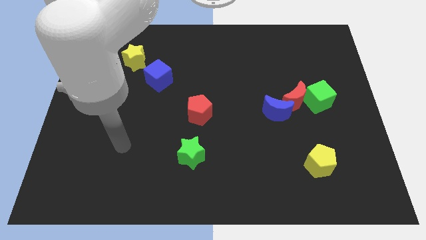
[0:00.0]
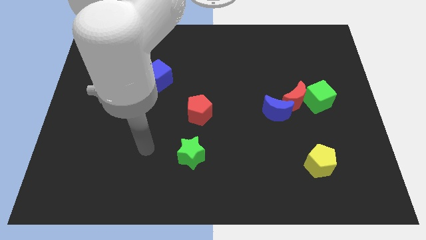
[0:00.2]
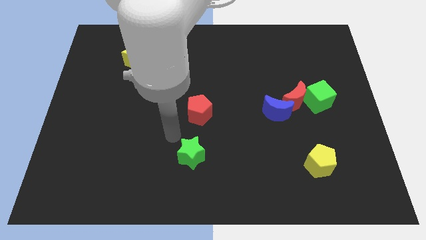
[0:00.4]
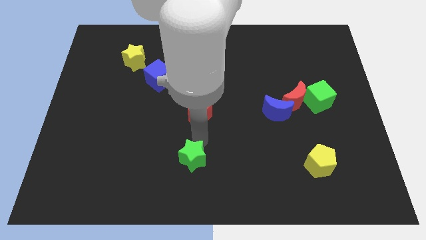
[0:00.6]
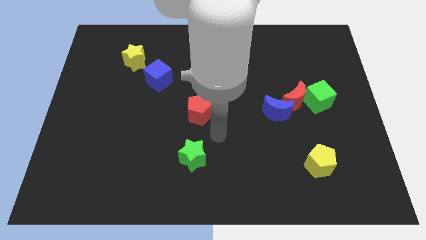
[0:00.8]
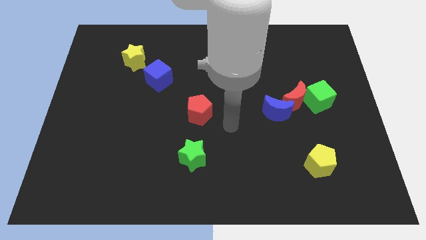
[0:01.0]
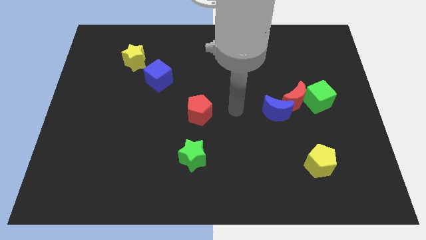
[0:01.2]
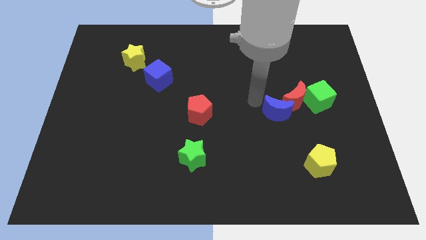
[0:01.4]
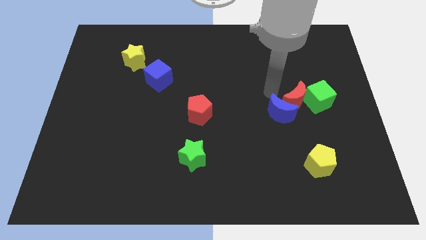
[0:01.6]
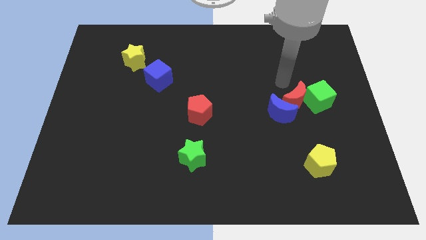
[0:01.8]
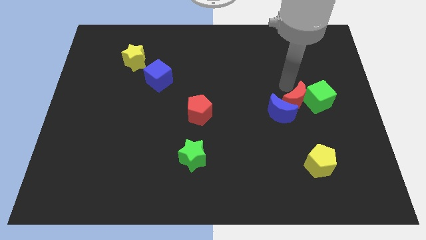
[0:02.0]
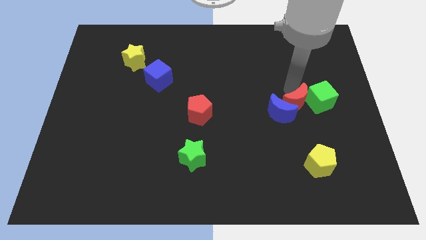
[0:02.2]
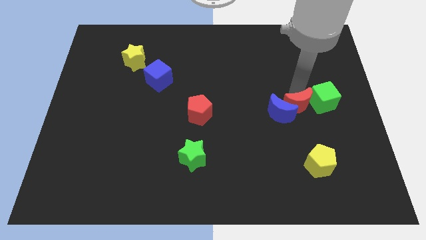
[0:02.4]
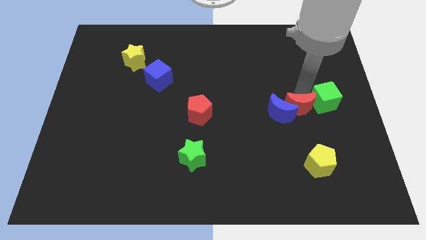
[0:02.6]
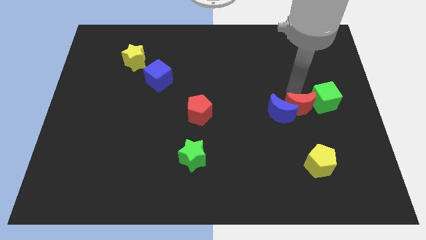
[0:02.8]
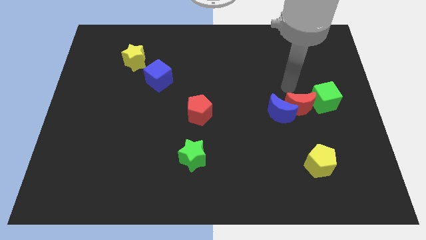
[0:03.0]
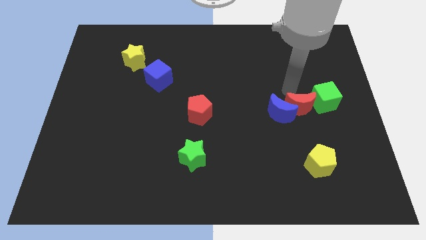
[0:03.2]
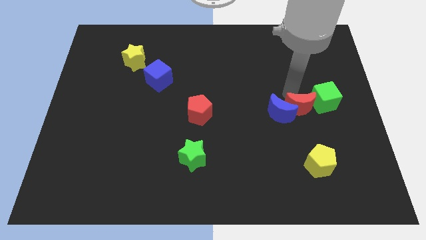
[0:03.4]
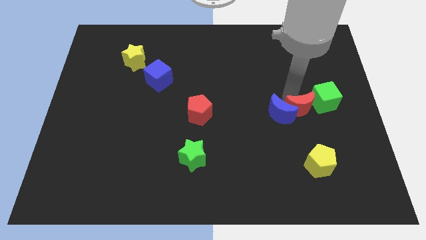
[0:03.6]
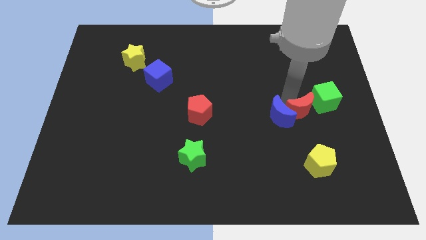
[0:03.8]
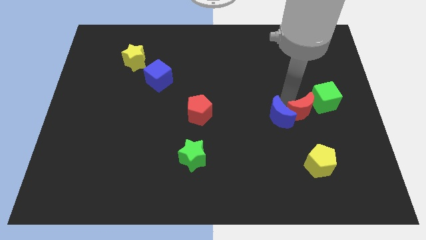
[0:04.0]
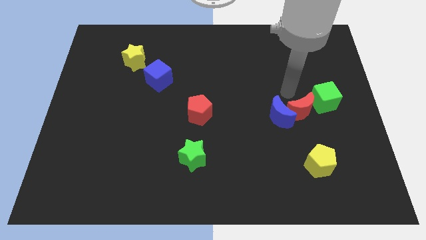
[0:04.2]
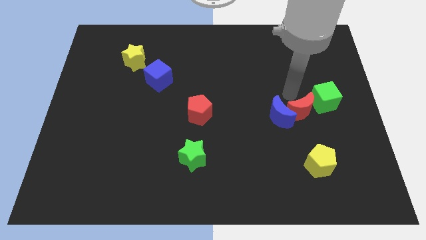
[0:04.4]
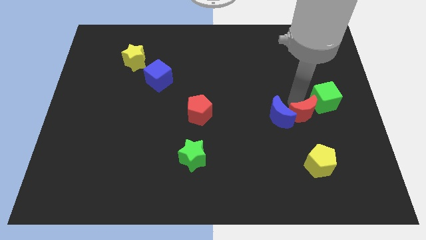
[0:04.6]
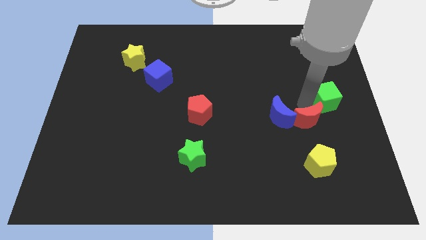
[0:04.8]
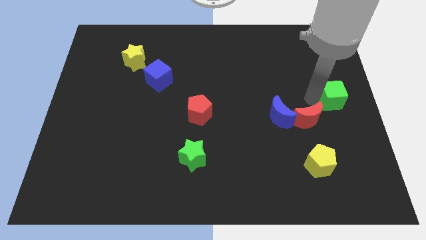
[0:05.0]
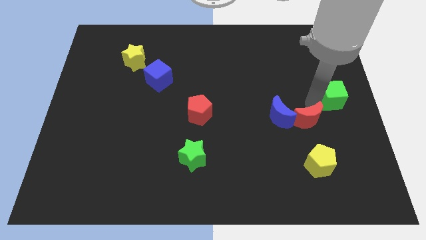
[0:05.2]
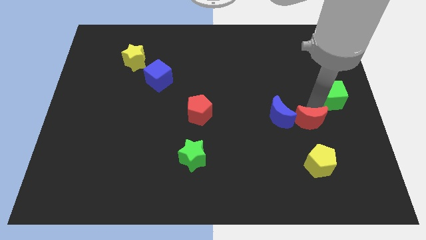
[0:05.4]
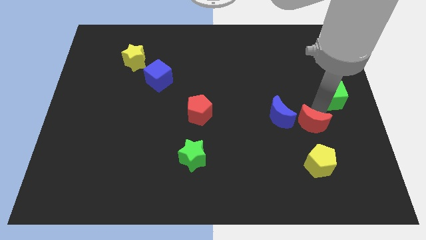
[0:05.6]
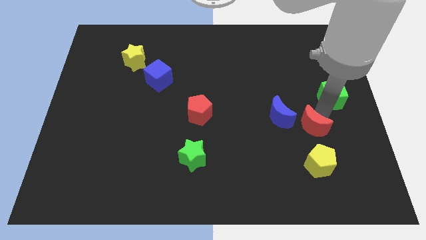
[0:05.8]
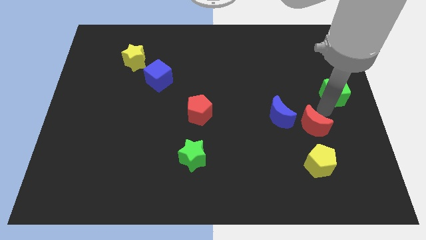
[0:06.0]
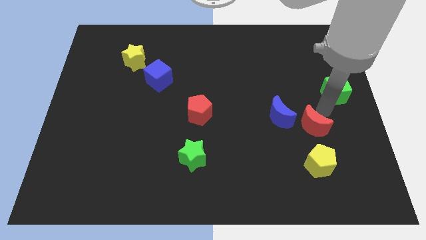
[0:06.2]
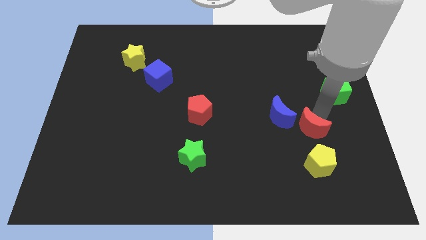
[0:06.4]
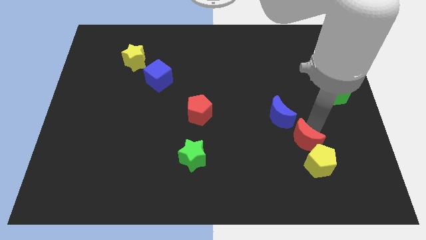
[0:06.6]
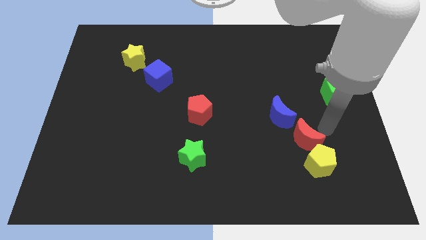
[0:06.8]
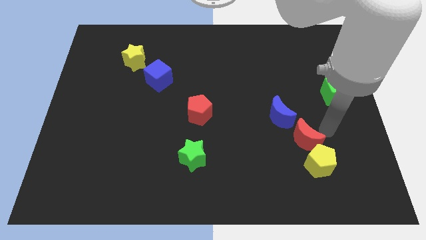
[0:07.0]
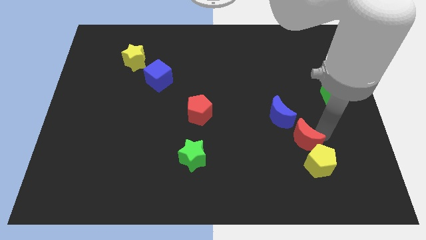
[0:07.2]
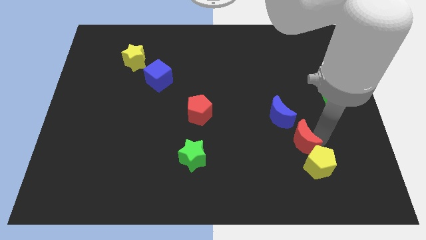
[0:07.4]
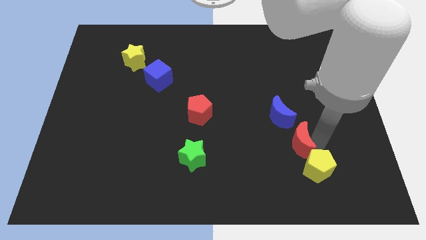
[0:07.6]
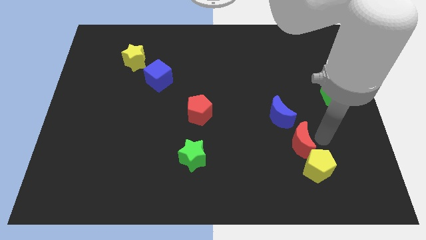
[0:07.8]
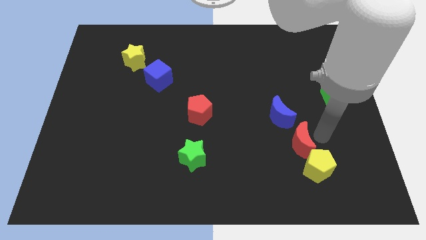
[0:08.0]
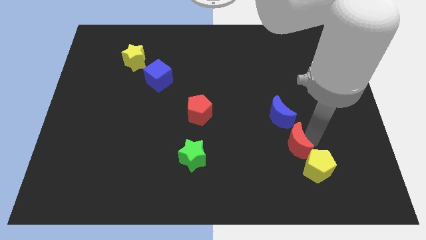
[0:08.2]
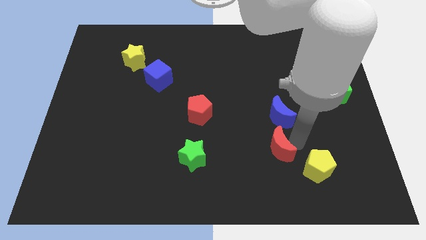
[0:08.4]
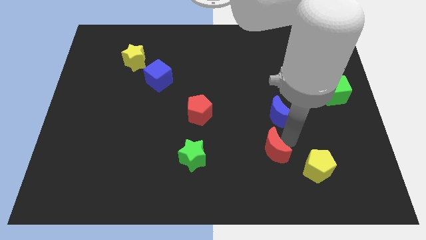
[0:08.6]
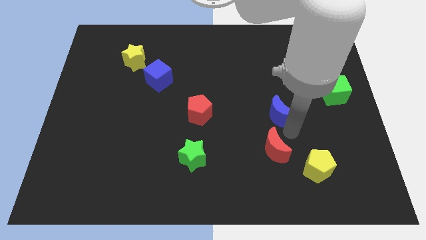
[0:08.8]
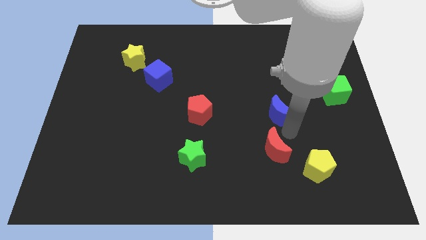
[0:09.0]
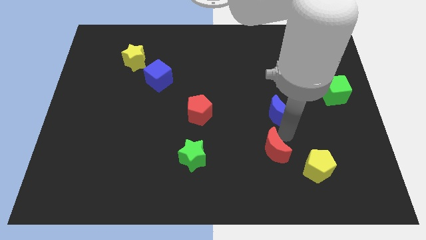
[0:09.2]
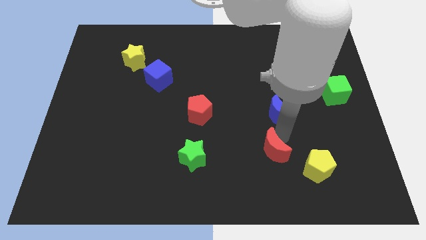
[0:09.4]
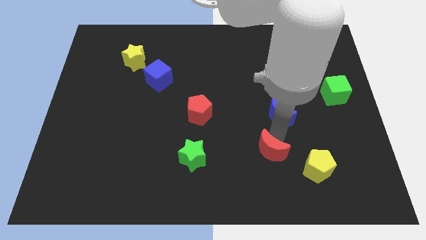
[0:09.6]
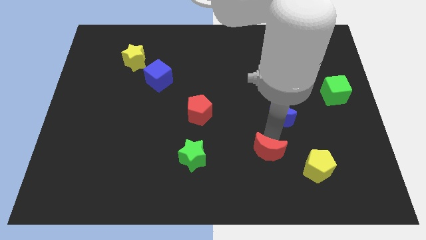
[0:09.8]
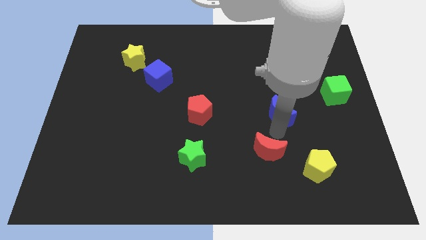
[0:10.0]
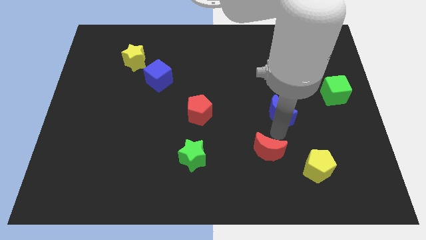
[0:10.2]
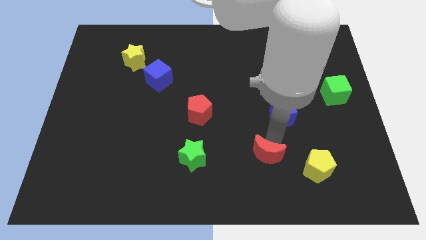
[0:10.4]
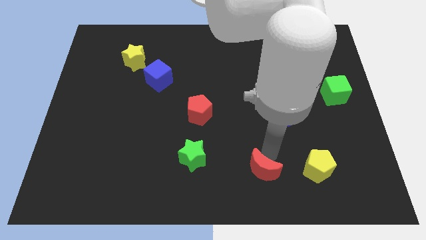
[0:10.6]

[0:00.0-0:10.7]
slide the red moon to the bottom side
